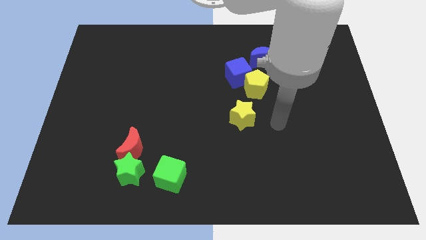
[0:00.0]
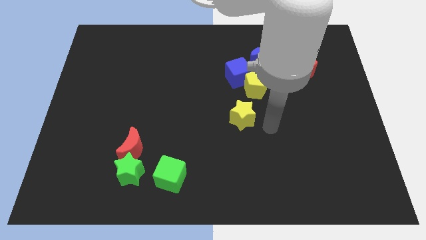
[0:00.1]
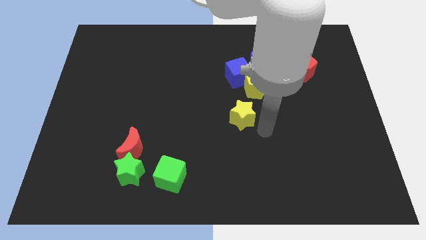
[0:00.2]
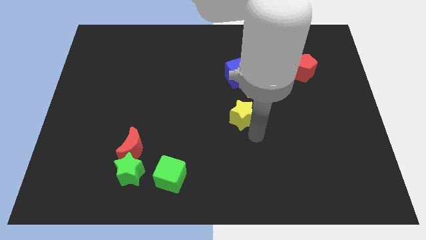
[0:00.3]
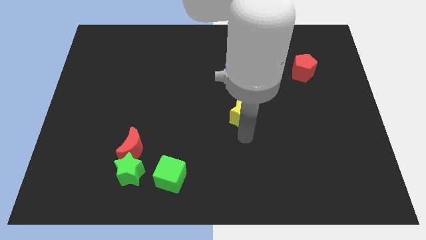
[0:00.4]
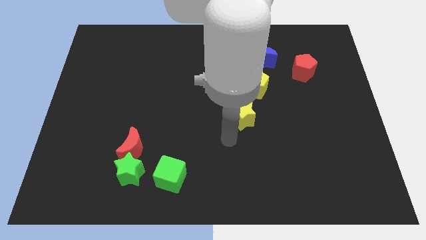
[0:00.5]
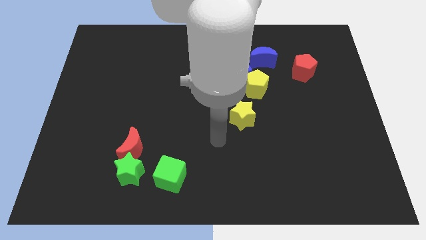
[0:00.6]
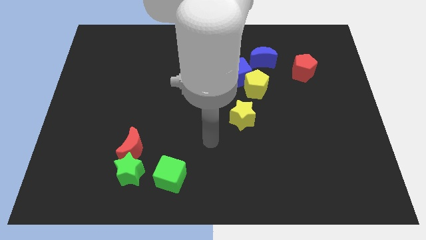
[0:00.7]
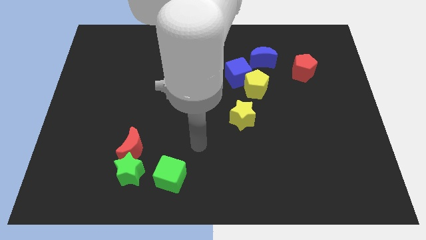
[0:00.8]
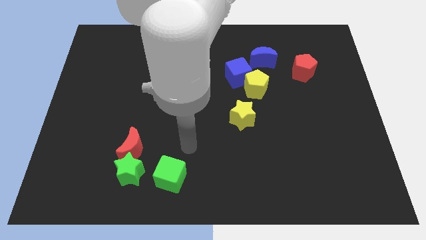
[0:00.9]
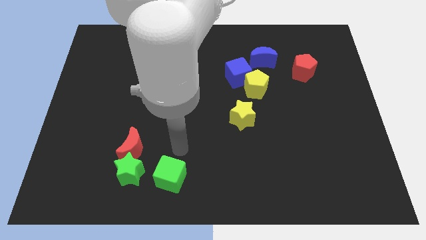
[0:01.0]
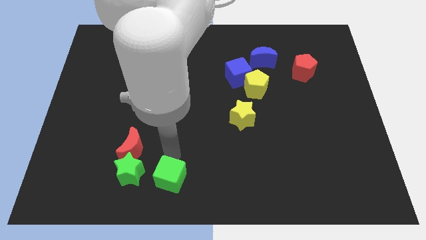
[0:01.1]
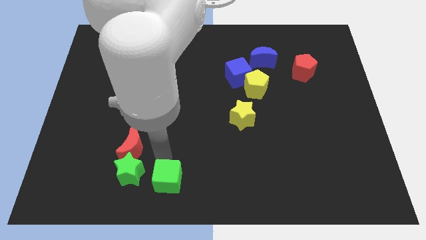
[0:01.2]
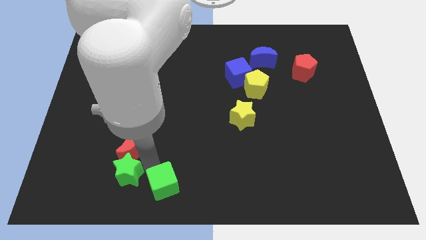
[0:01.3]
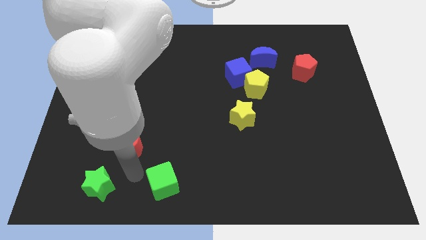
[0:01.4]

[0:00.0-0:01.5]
move the red moon away from the green star

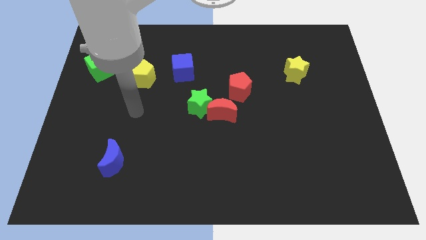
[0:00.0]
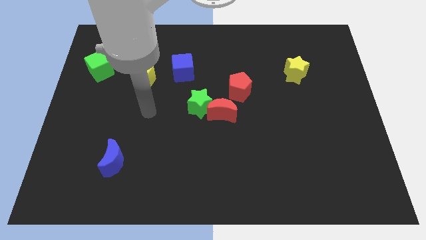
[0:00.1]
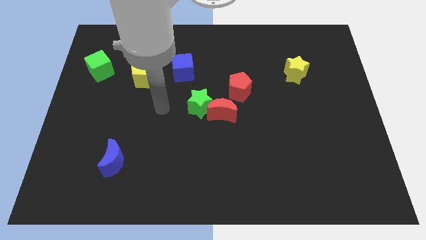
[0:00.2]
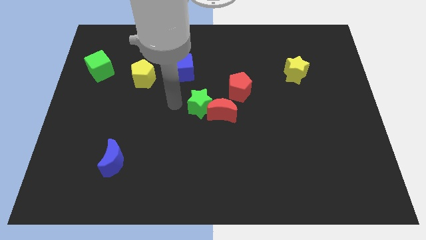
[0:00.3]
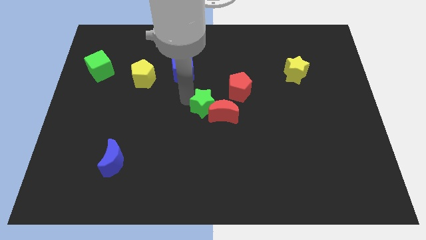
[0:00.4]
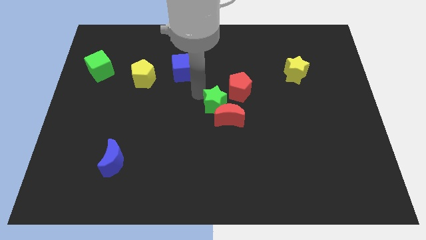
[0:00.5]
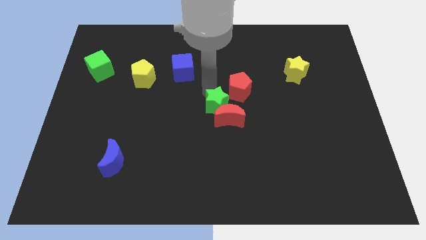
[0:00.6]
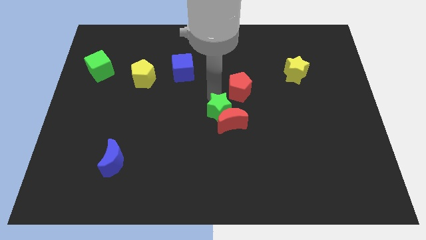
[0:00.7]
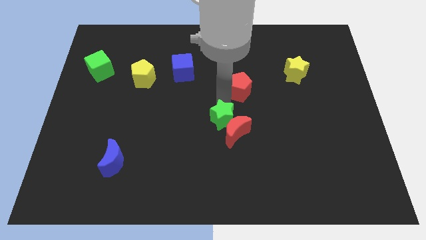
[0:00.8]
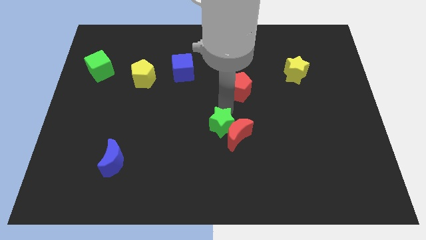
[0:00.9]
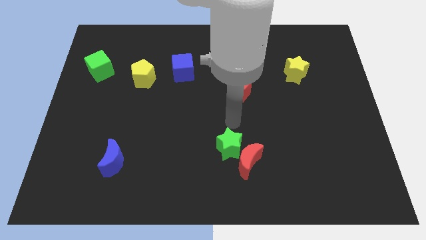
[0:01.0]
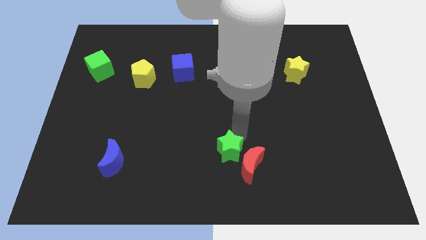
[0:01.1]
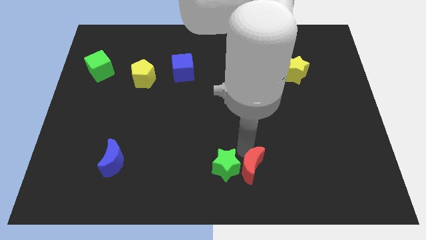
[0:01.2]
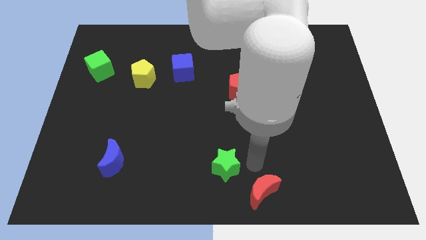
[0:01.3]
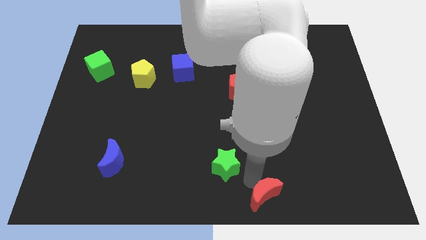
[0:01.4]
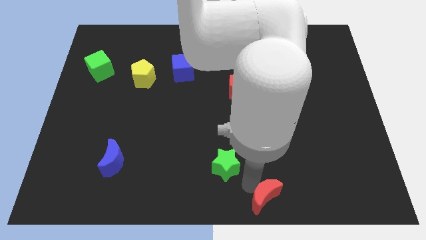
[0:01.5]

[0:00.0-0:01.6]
pull the green star apart from the red moon

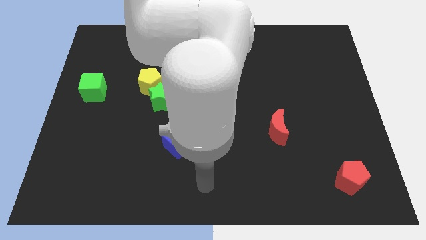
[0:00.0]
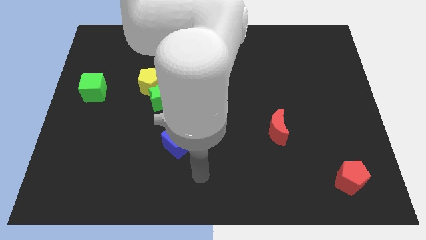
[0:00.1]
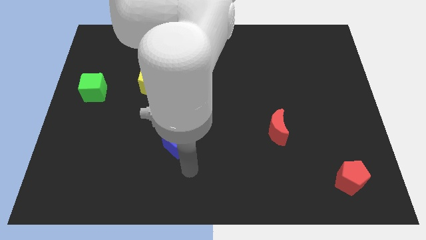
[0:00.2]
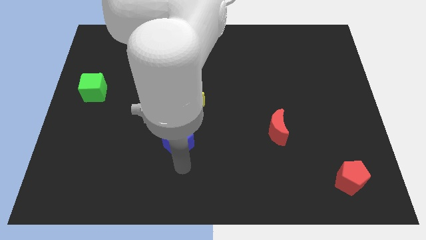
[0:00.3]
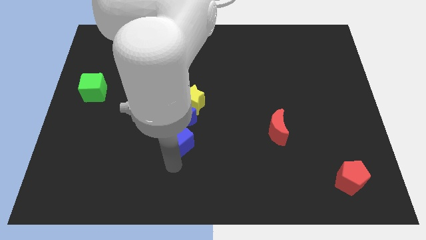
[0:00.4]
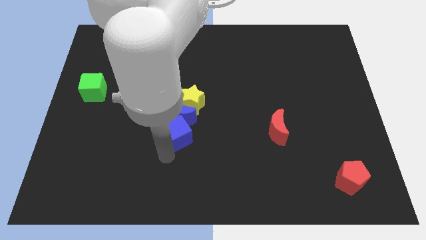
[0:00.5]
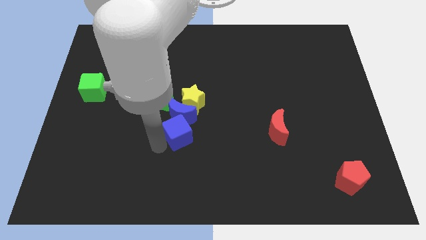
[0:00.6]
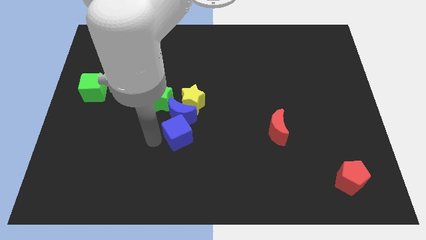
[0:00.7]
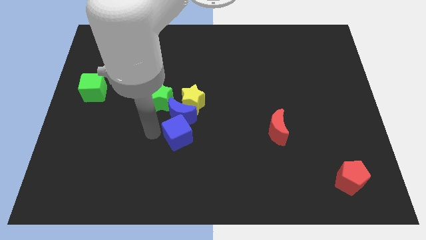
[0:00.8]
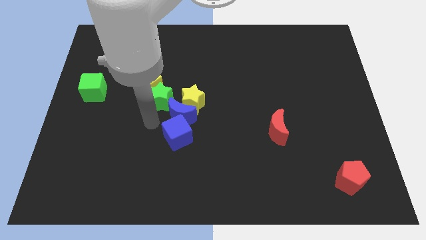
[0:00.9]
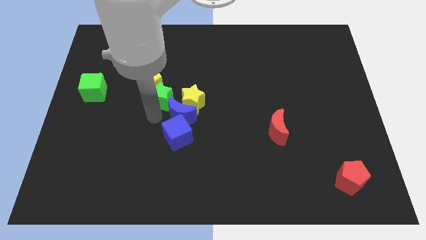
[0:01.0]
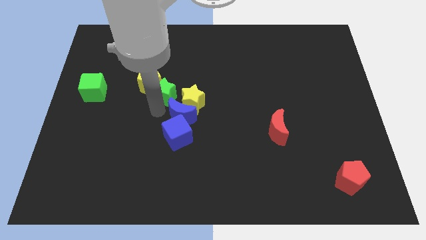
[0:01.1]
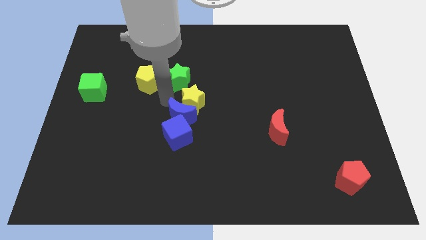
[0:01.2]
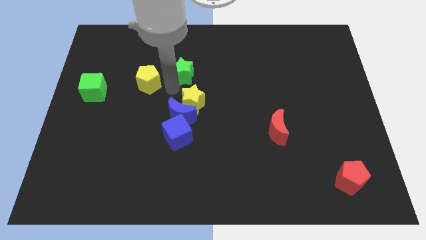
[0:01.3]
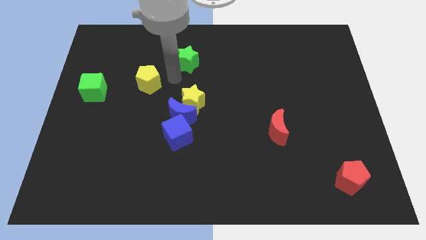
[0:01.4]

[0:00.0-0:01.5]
separate the yellow pentagon from the green star

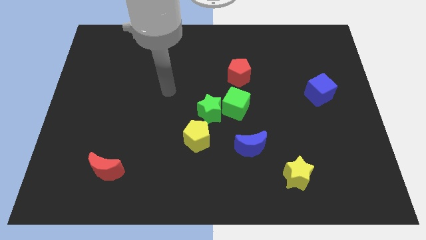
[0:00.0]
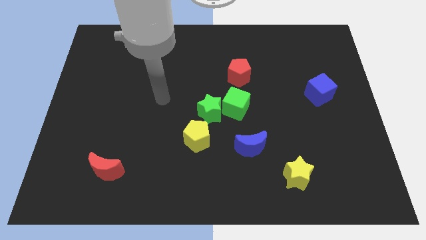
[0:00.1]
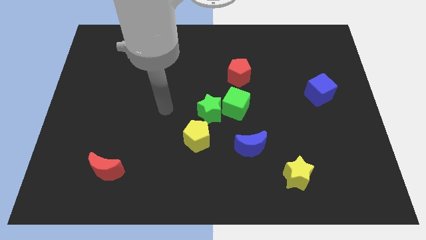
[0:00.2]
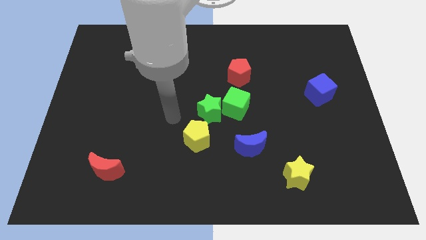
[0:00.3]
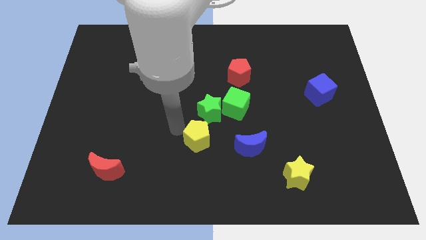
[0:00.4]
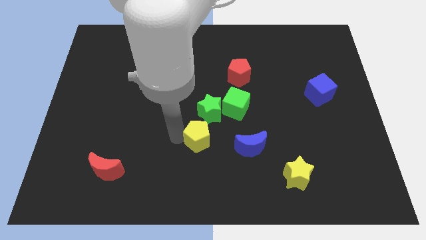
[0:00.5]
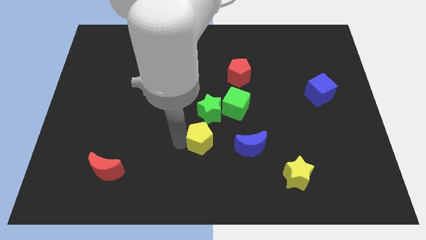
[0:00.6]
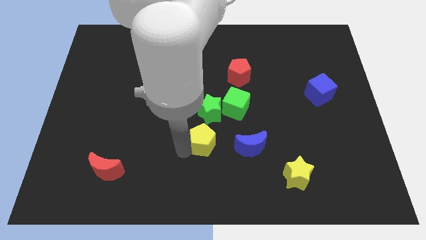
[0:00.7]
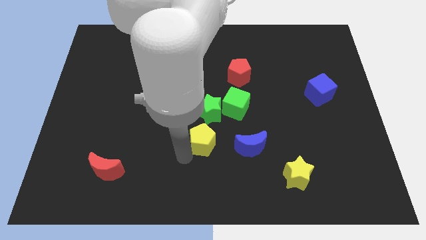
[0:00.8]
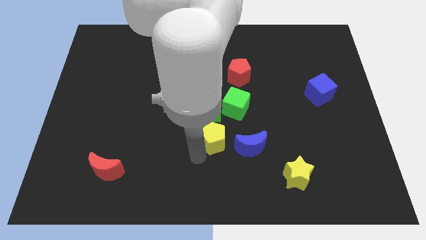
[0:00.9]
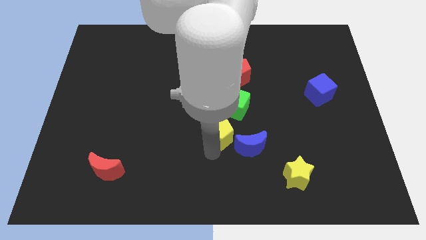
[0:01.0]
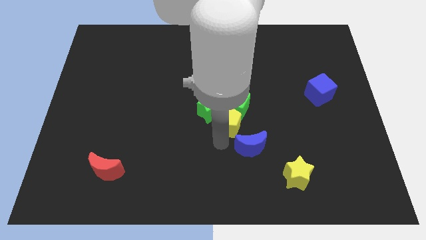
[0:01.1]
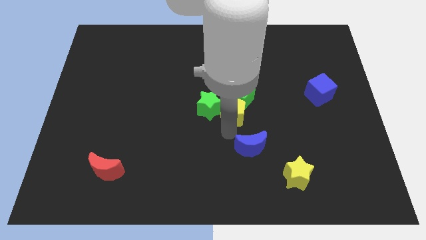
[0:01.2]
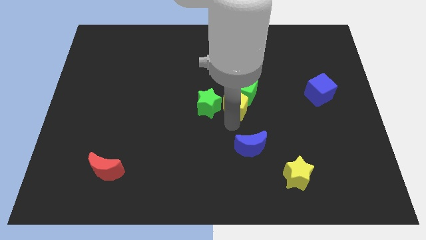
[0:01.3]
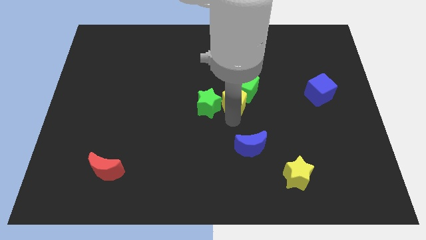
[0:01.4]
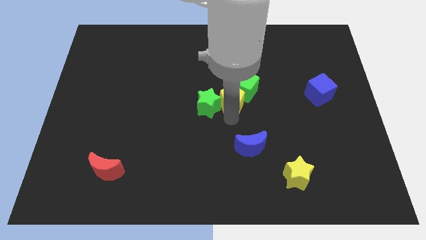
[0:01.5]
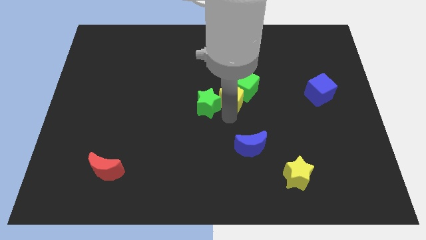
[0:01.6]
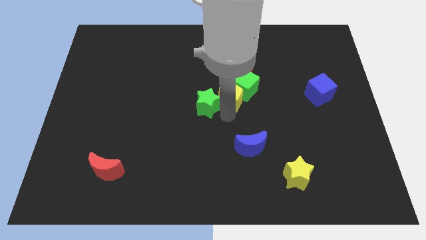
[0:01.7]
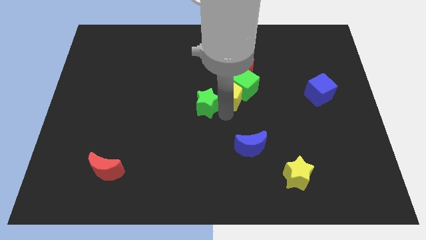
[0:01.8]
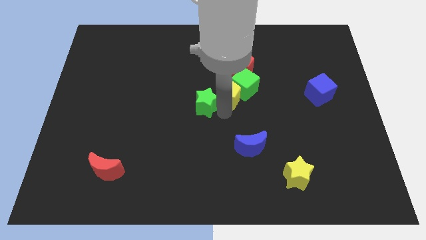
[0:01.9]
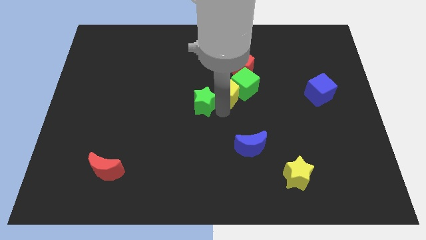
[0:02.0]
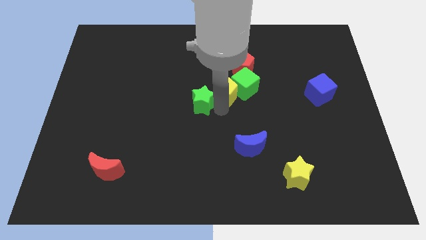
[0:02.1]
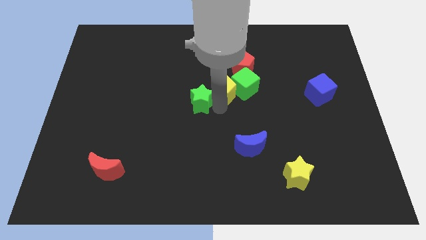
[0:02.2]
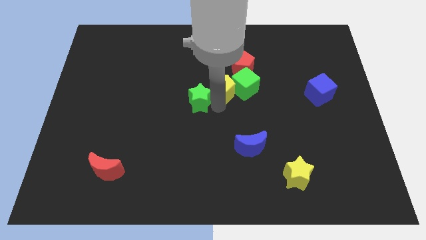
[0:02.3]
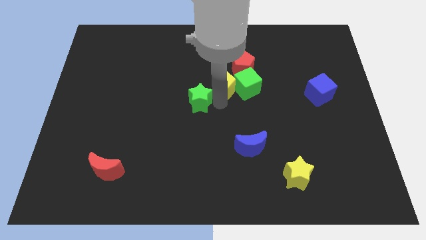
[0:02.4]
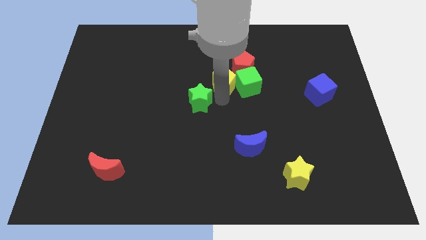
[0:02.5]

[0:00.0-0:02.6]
pull the green star apart from the green cube and yellow pentagon

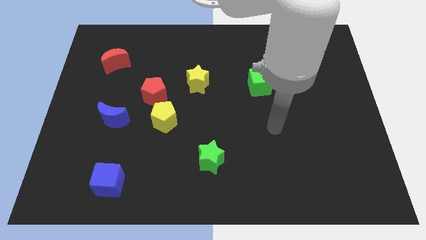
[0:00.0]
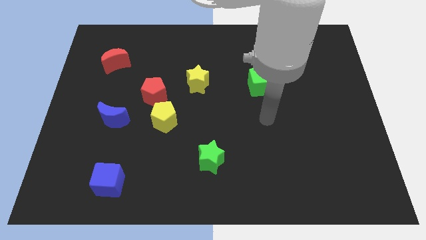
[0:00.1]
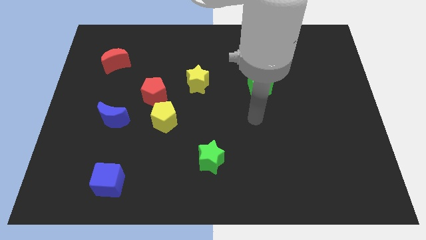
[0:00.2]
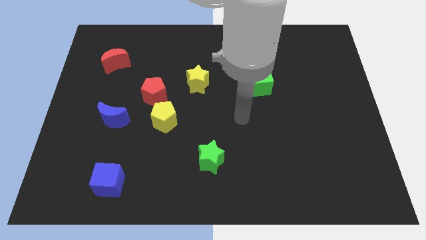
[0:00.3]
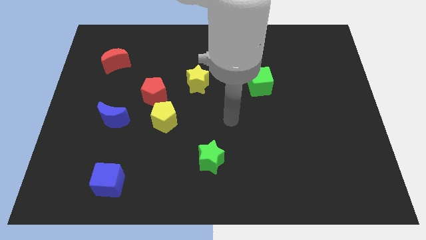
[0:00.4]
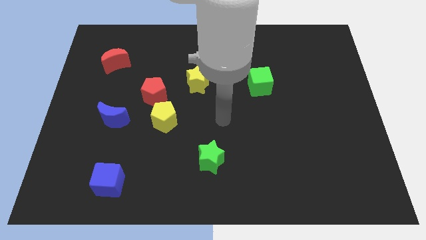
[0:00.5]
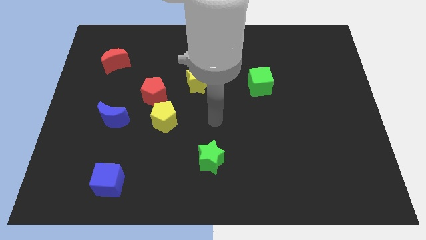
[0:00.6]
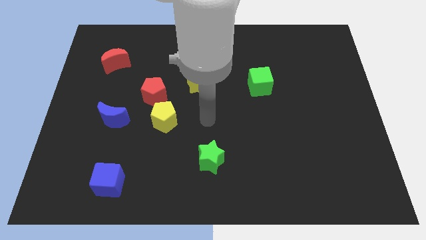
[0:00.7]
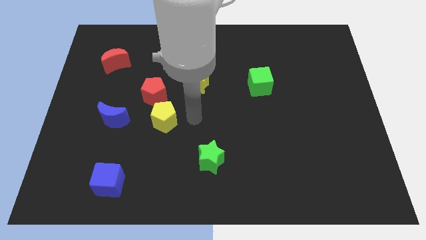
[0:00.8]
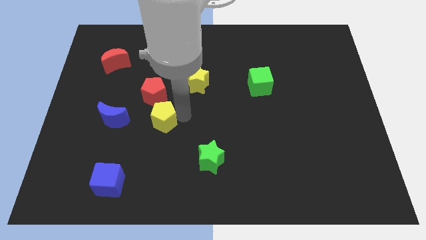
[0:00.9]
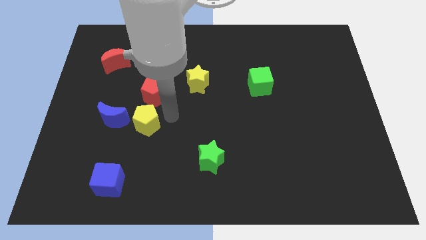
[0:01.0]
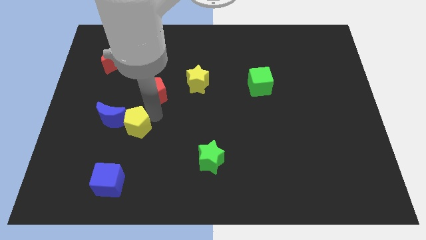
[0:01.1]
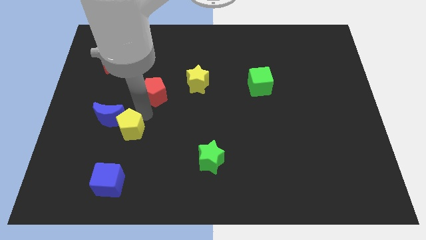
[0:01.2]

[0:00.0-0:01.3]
move the red pentagon away from the yellow pentagon

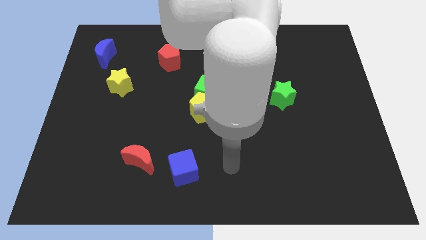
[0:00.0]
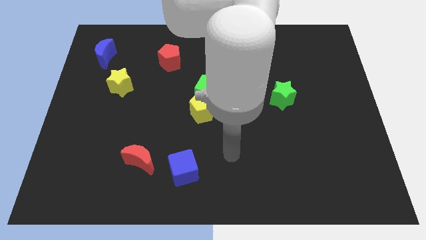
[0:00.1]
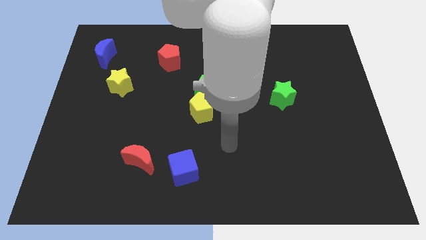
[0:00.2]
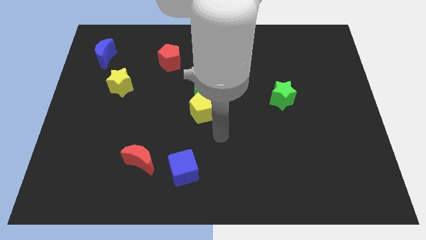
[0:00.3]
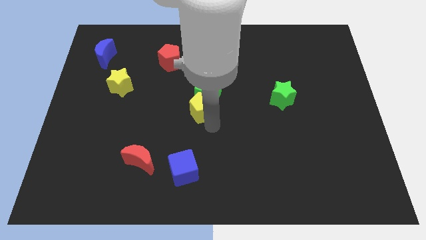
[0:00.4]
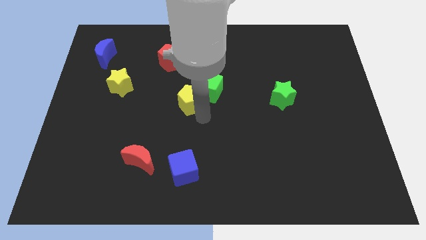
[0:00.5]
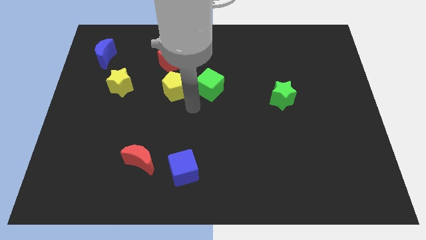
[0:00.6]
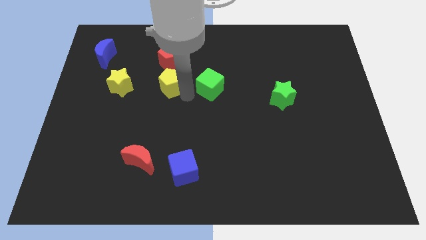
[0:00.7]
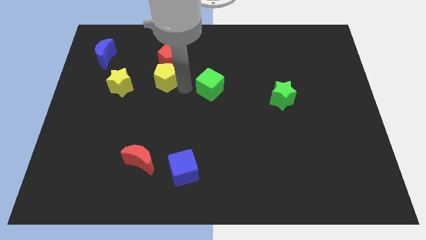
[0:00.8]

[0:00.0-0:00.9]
separate the green cube from the yellow pentagon
